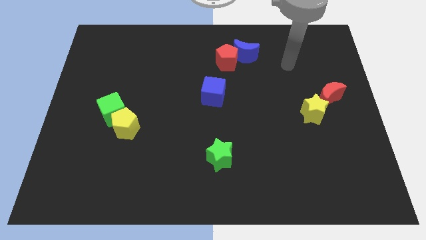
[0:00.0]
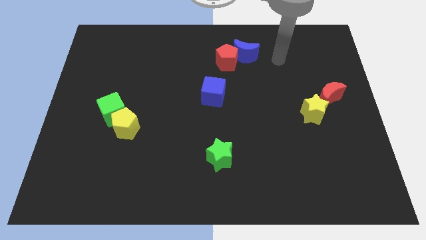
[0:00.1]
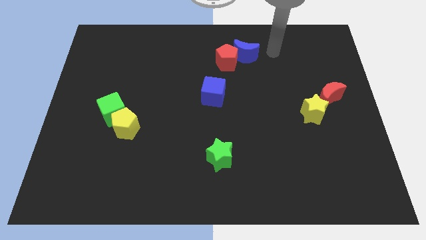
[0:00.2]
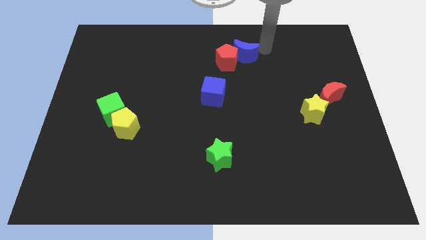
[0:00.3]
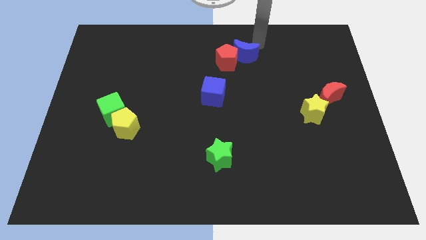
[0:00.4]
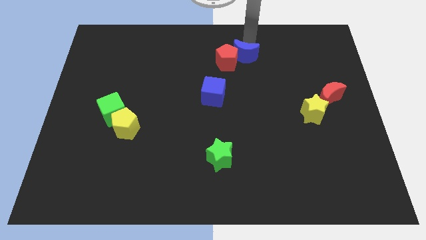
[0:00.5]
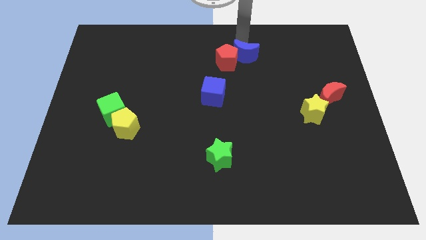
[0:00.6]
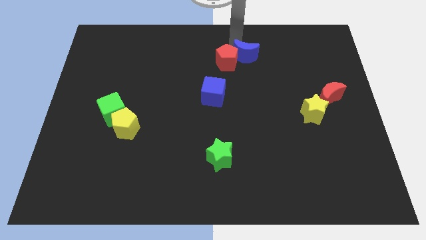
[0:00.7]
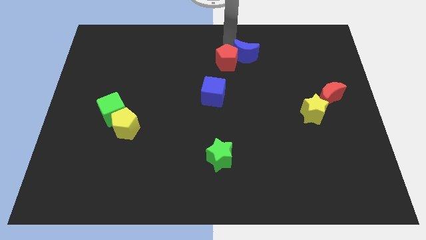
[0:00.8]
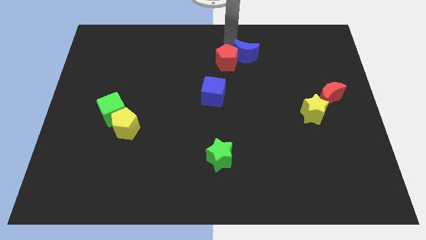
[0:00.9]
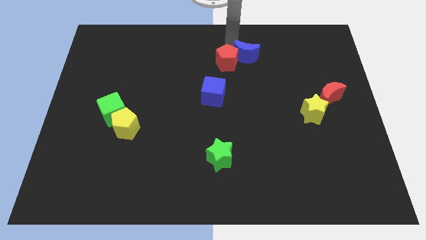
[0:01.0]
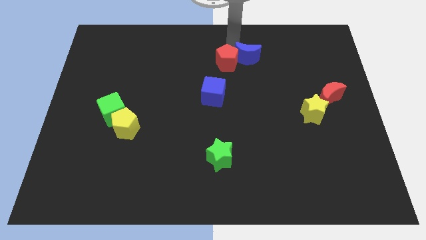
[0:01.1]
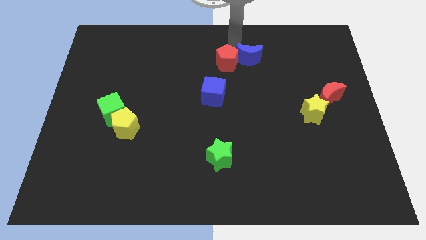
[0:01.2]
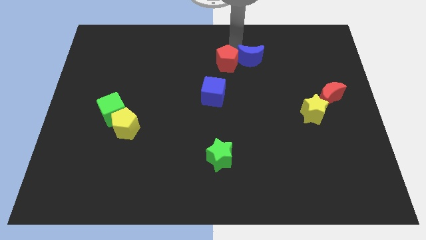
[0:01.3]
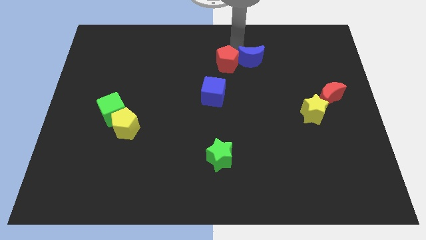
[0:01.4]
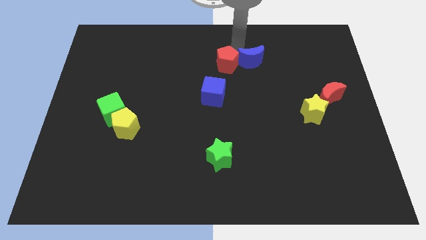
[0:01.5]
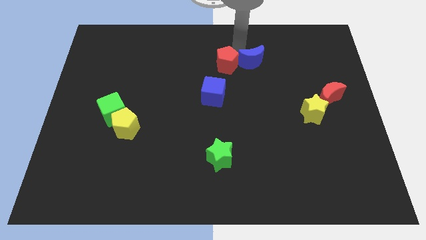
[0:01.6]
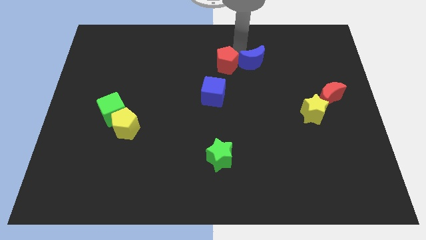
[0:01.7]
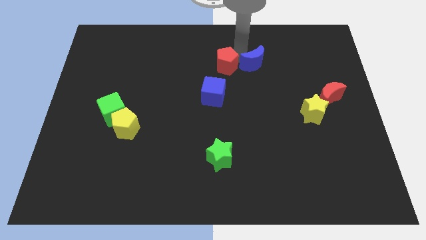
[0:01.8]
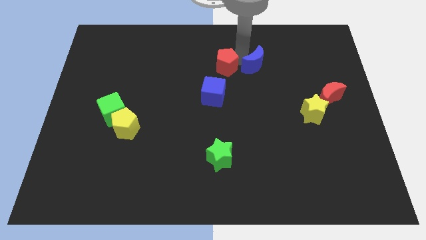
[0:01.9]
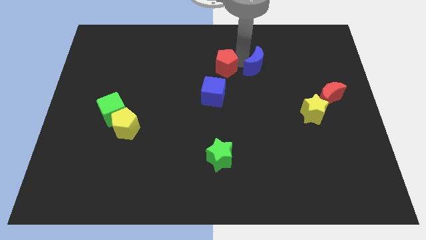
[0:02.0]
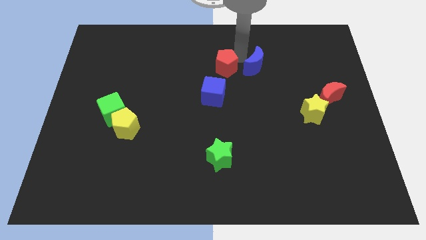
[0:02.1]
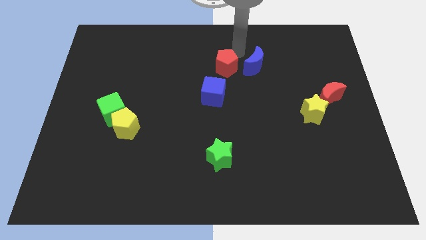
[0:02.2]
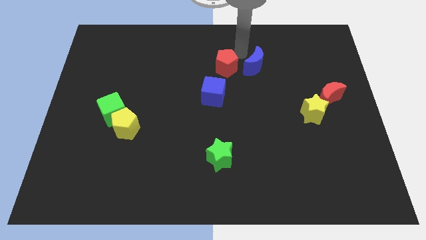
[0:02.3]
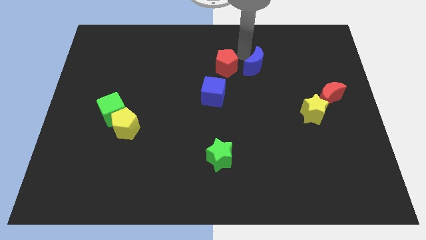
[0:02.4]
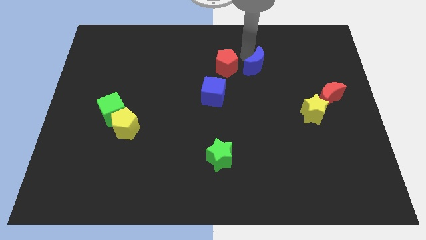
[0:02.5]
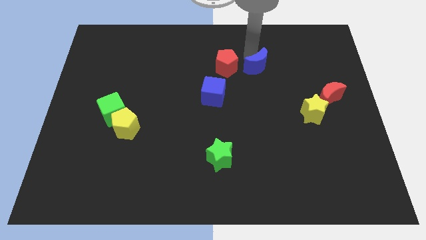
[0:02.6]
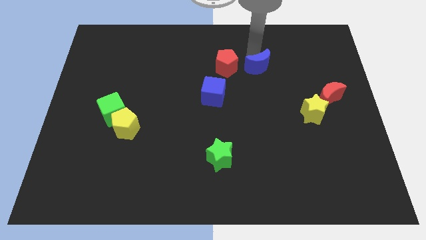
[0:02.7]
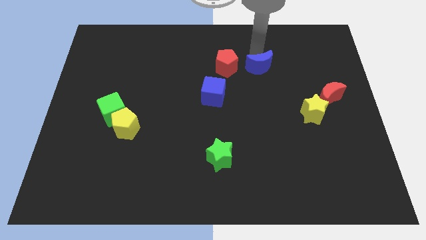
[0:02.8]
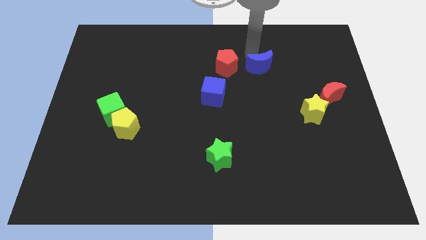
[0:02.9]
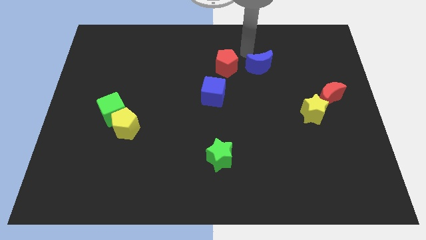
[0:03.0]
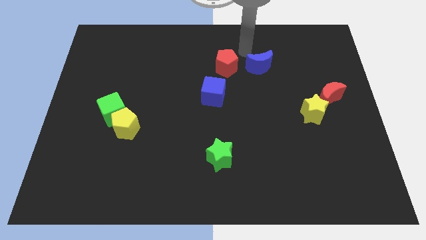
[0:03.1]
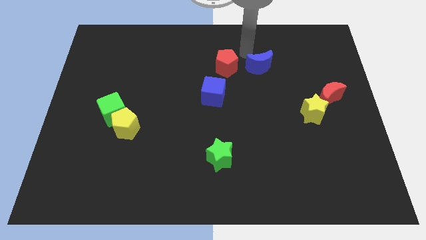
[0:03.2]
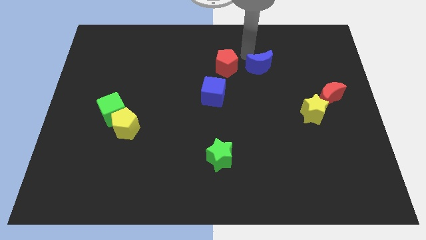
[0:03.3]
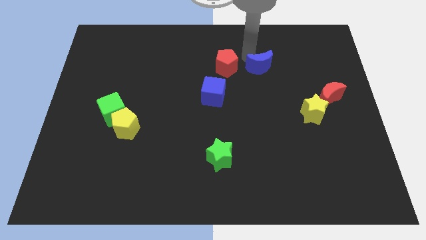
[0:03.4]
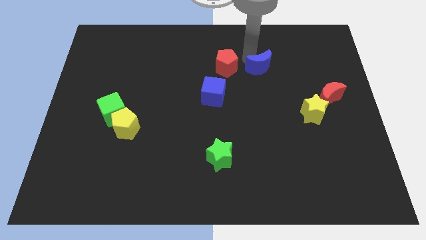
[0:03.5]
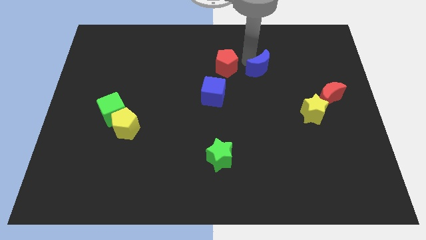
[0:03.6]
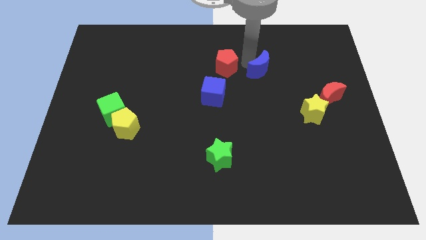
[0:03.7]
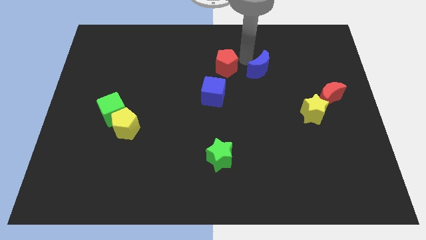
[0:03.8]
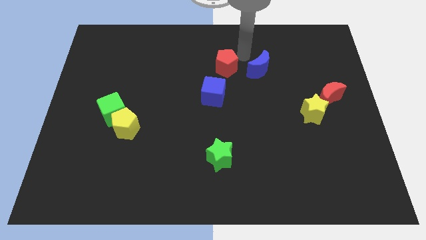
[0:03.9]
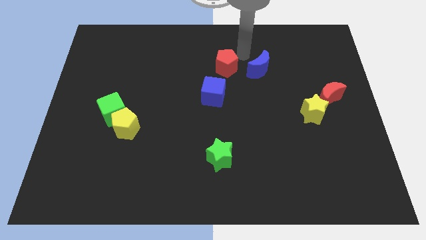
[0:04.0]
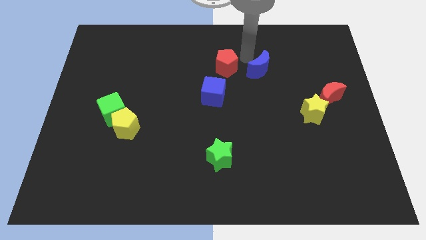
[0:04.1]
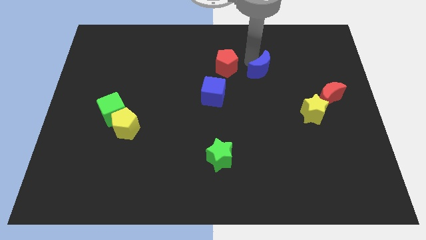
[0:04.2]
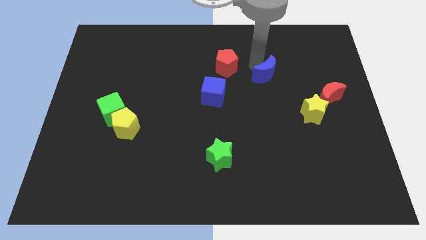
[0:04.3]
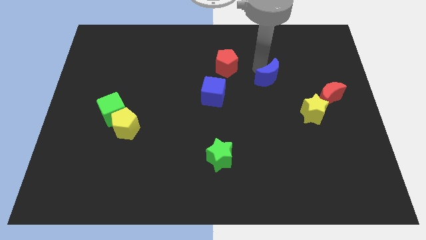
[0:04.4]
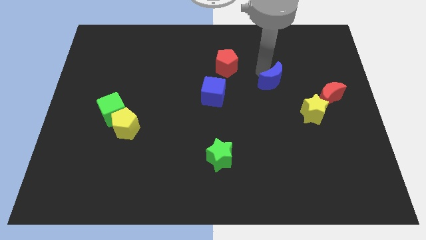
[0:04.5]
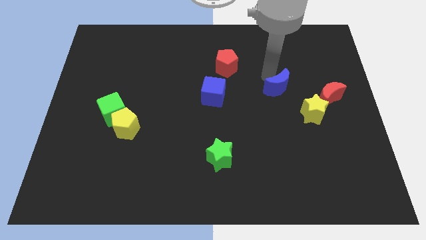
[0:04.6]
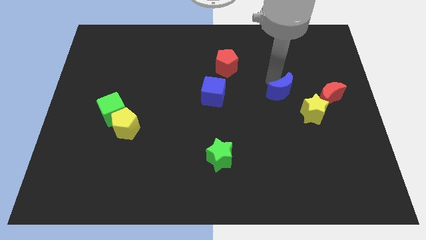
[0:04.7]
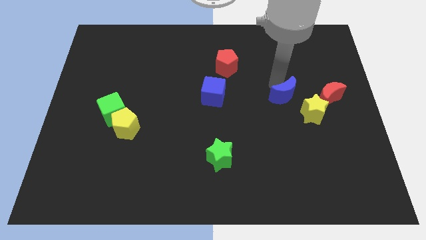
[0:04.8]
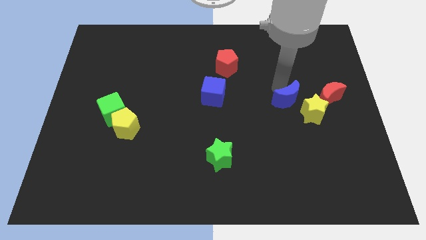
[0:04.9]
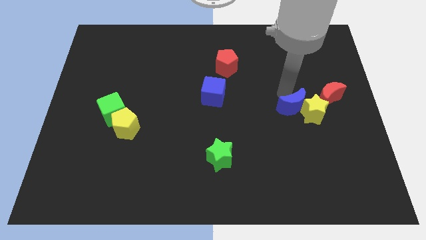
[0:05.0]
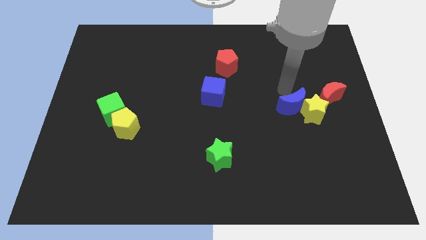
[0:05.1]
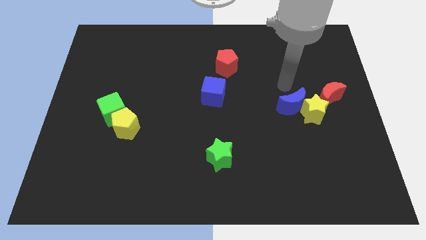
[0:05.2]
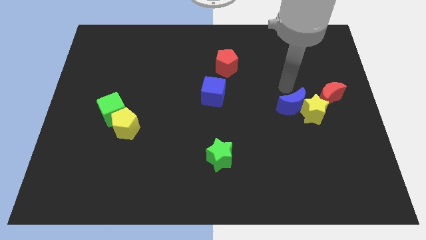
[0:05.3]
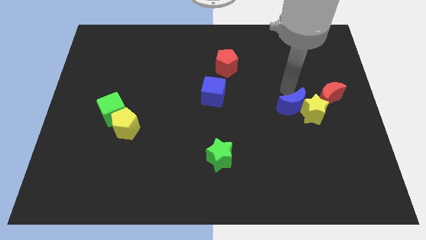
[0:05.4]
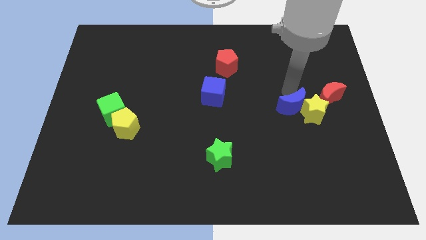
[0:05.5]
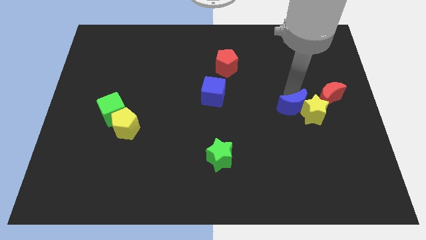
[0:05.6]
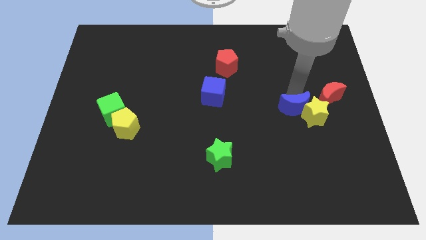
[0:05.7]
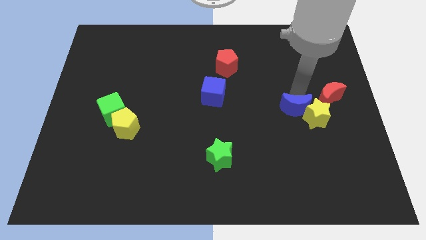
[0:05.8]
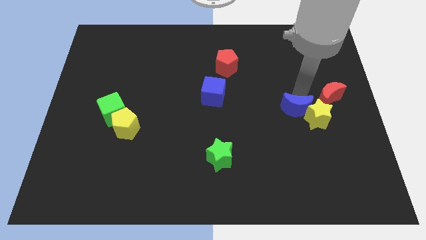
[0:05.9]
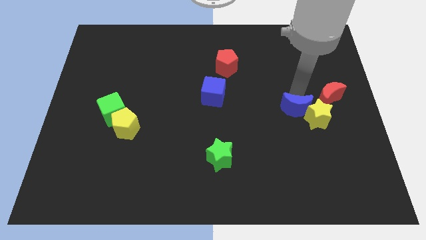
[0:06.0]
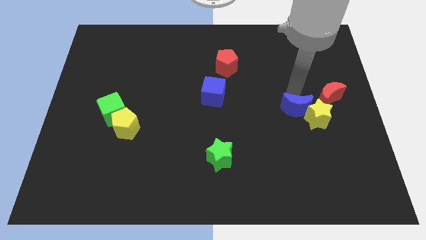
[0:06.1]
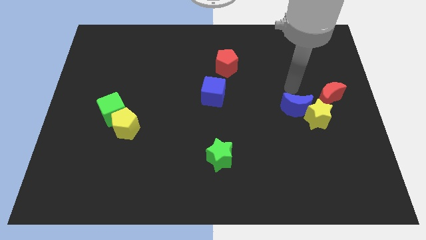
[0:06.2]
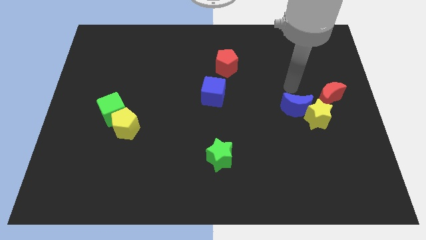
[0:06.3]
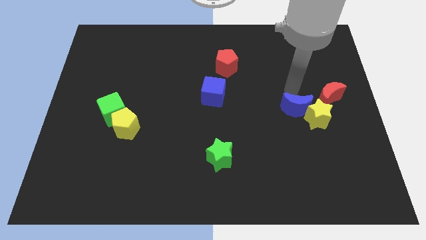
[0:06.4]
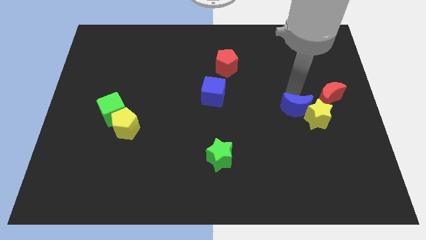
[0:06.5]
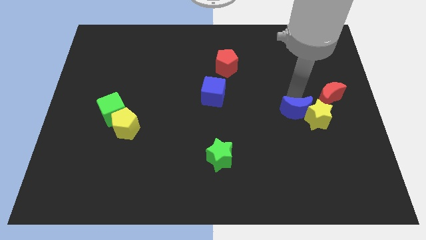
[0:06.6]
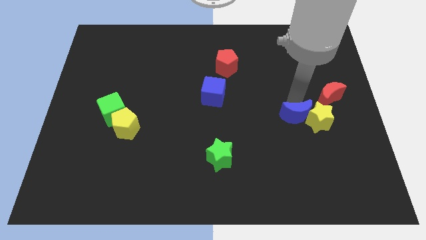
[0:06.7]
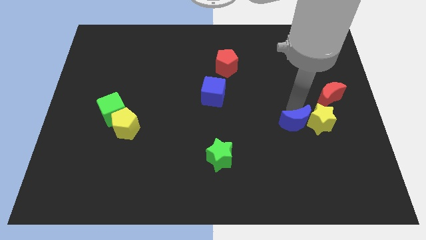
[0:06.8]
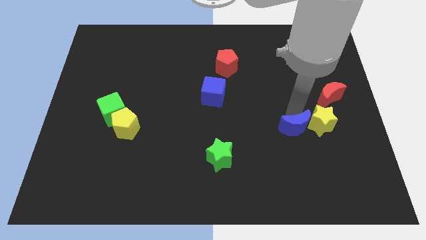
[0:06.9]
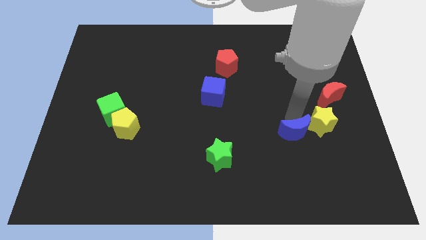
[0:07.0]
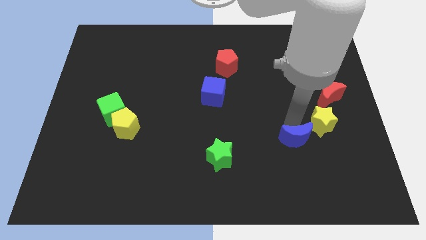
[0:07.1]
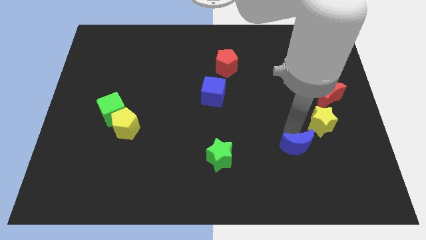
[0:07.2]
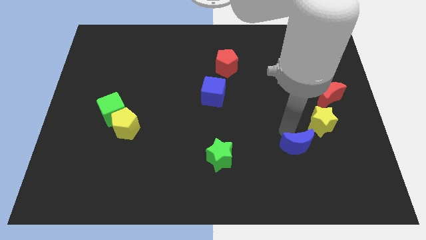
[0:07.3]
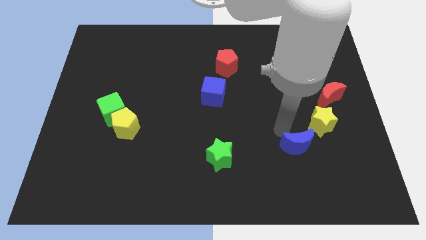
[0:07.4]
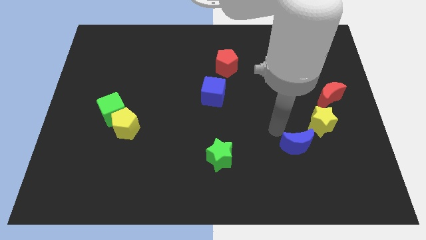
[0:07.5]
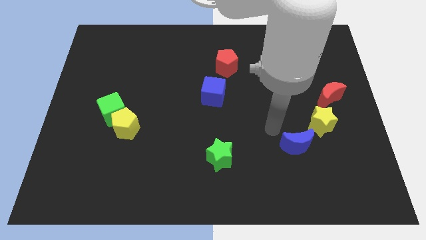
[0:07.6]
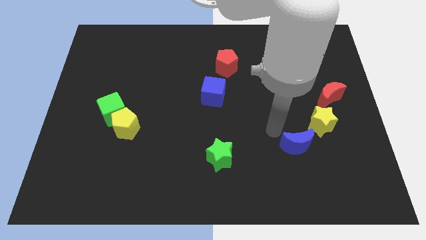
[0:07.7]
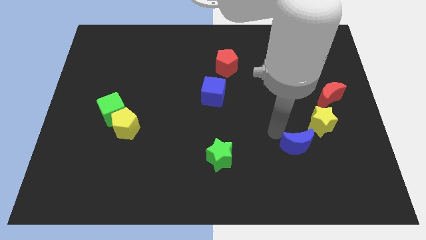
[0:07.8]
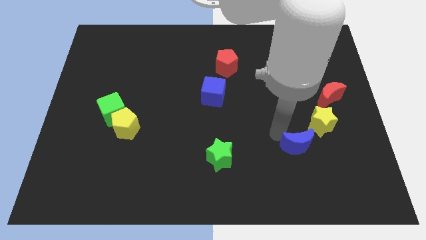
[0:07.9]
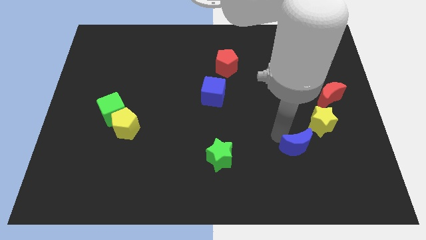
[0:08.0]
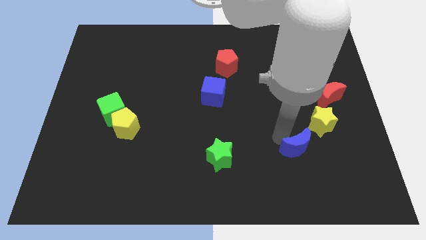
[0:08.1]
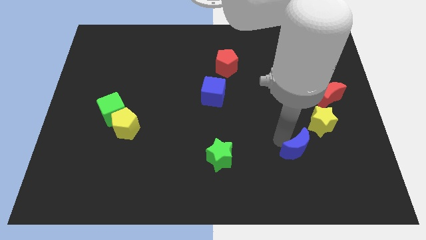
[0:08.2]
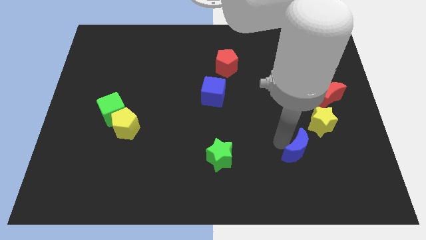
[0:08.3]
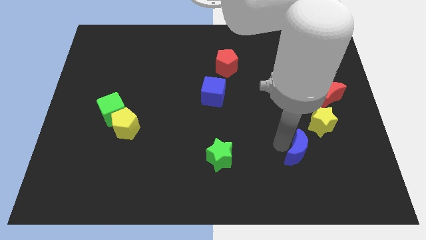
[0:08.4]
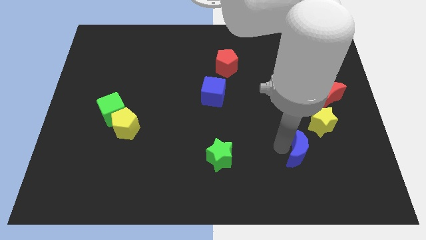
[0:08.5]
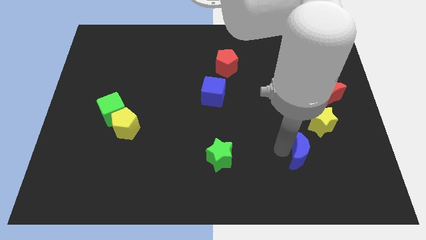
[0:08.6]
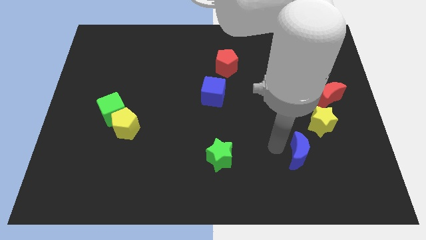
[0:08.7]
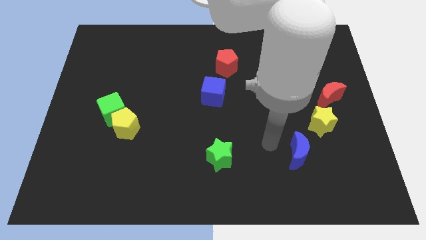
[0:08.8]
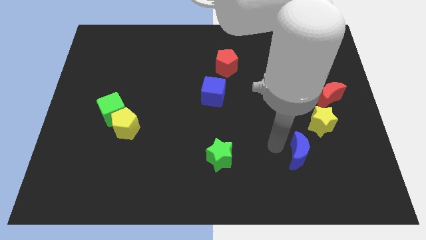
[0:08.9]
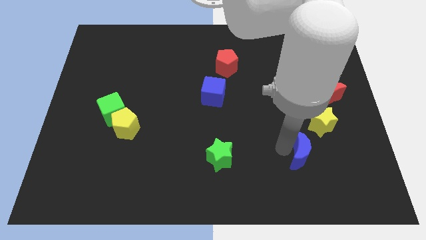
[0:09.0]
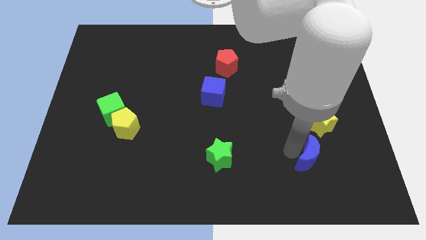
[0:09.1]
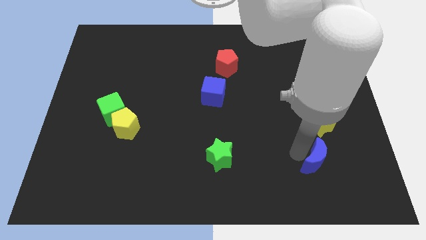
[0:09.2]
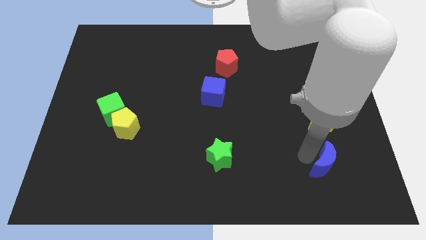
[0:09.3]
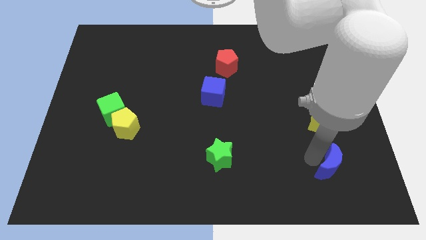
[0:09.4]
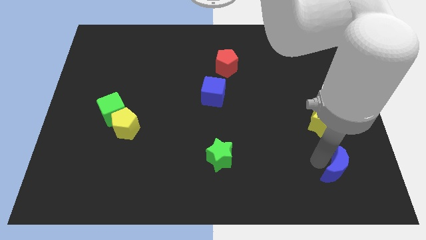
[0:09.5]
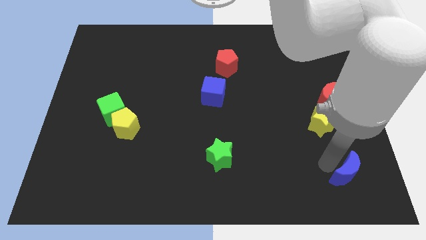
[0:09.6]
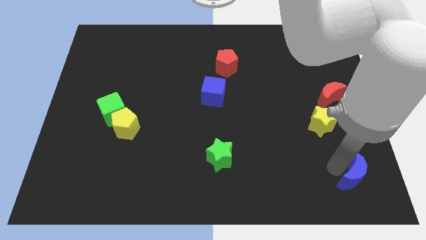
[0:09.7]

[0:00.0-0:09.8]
push the blue moon to the bottom right corner
